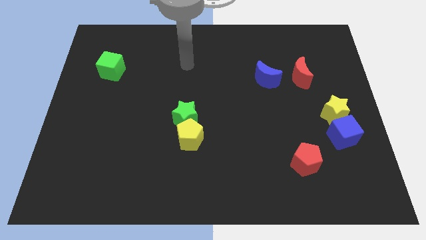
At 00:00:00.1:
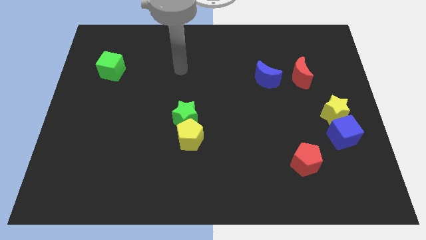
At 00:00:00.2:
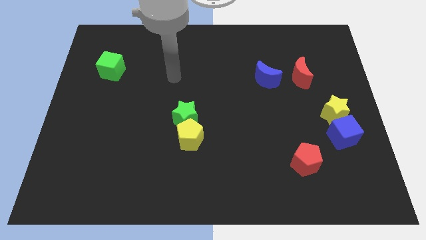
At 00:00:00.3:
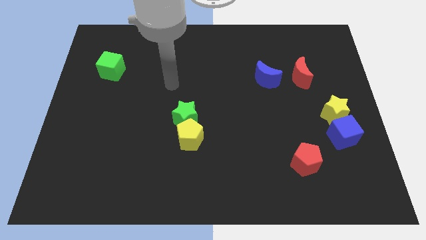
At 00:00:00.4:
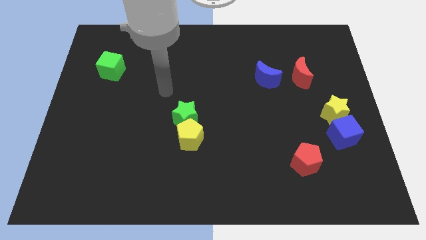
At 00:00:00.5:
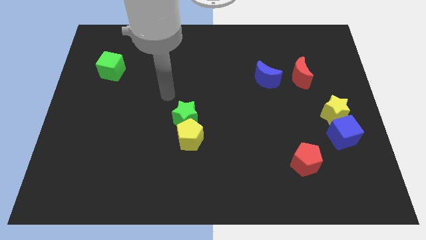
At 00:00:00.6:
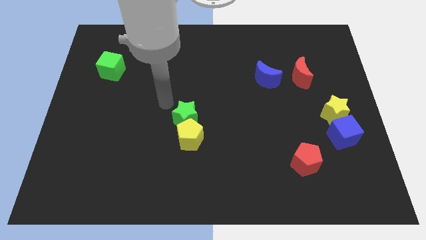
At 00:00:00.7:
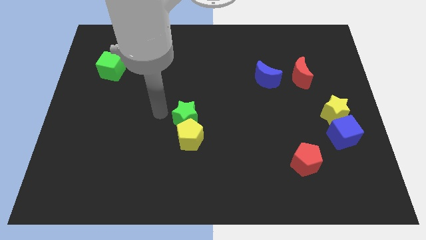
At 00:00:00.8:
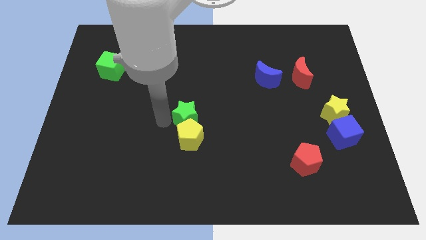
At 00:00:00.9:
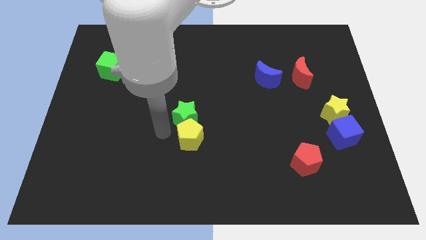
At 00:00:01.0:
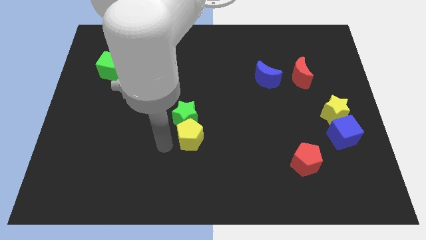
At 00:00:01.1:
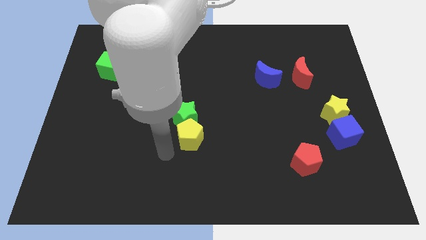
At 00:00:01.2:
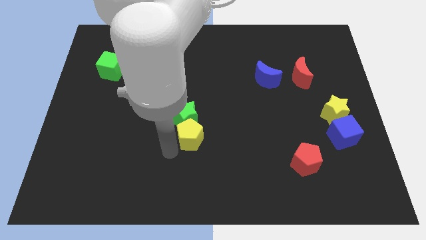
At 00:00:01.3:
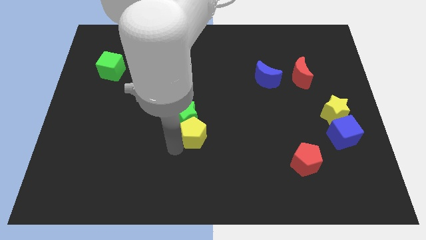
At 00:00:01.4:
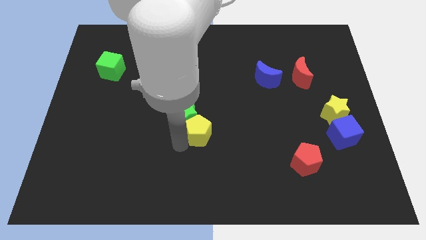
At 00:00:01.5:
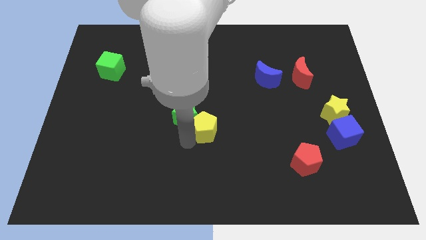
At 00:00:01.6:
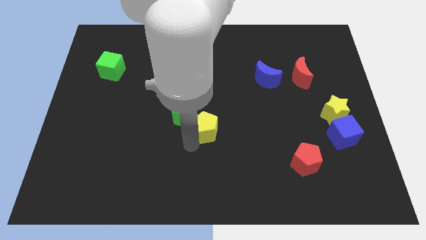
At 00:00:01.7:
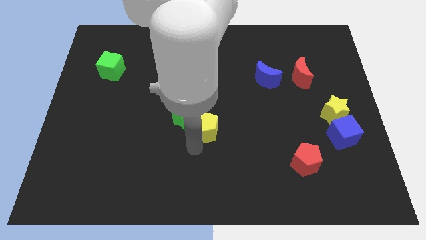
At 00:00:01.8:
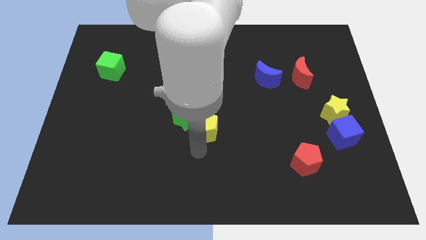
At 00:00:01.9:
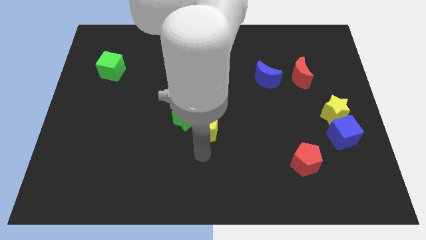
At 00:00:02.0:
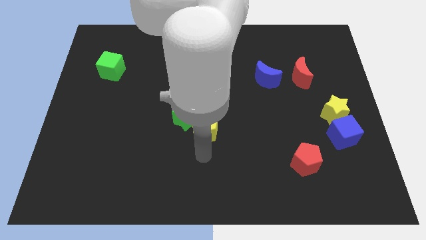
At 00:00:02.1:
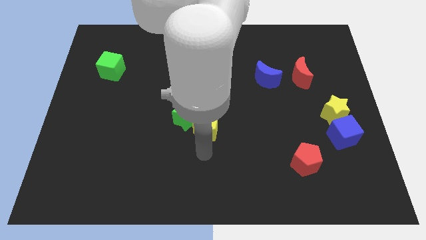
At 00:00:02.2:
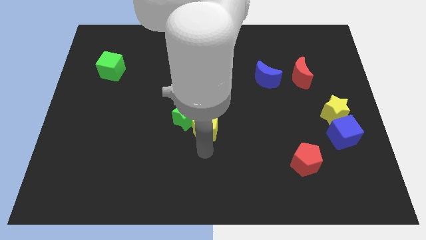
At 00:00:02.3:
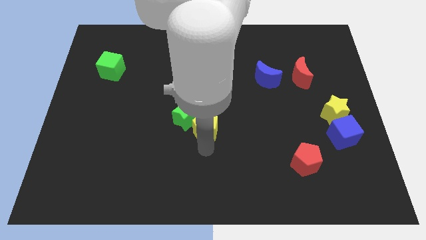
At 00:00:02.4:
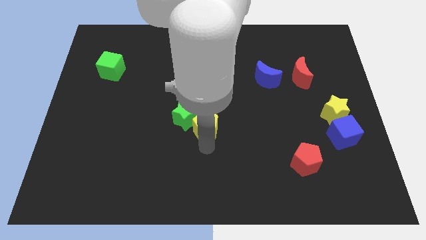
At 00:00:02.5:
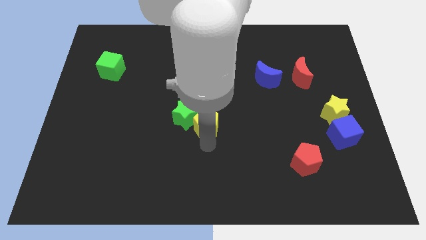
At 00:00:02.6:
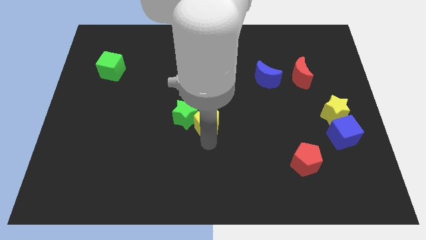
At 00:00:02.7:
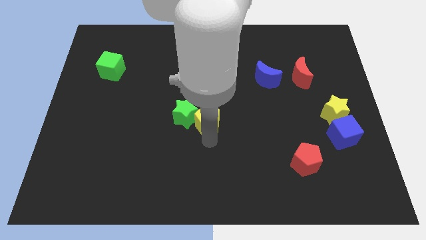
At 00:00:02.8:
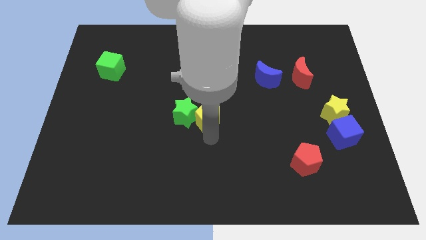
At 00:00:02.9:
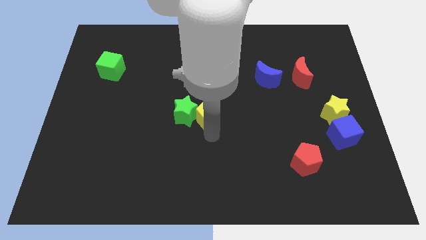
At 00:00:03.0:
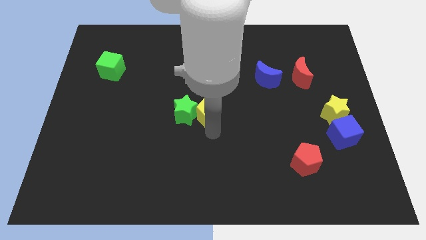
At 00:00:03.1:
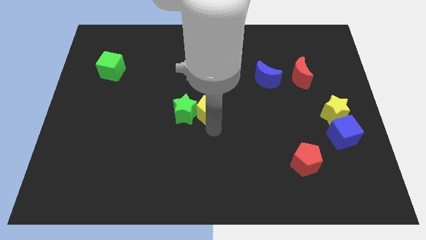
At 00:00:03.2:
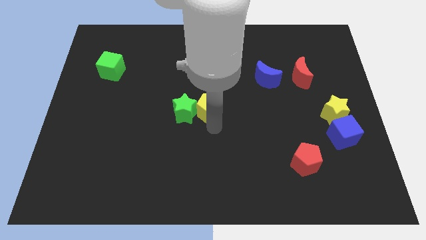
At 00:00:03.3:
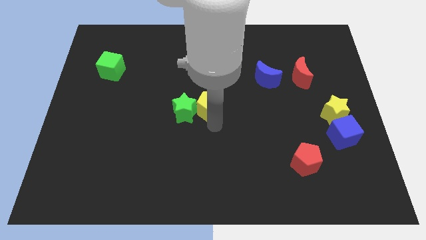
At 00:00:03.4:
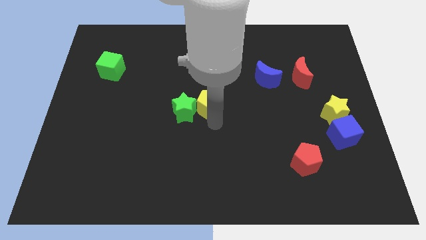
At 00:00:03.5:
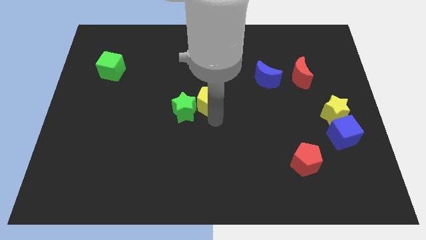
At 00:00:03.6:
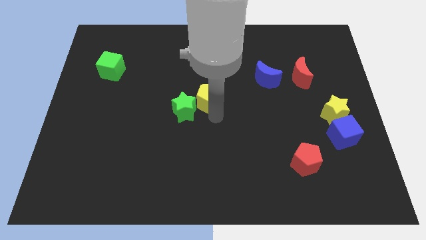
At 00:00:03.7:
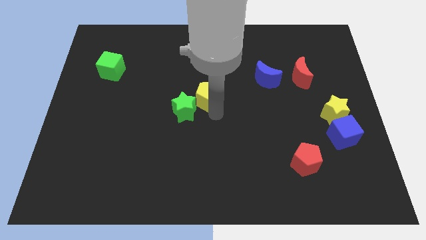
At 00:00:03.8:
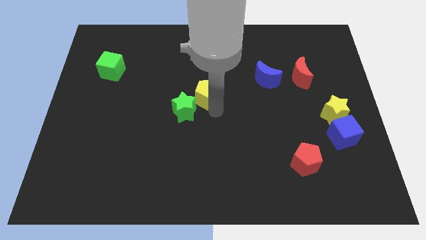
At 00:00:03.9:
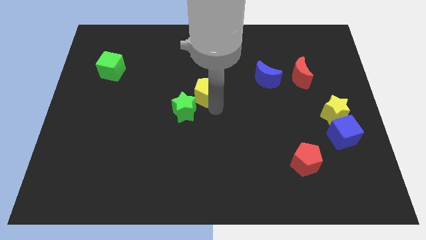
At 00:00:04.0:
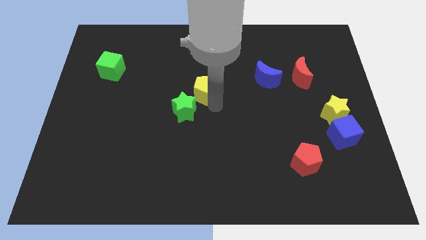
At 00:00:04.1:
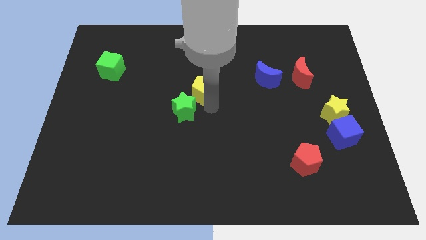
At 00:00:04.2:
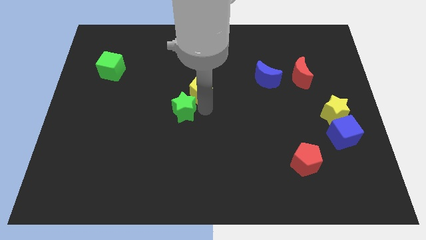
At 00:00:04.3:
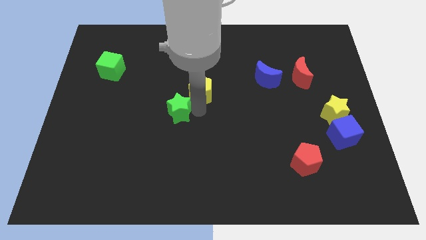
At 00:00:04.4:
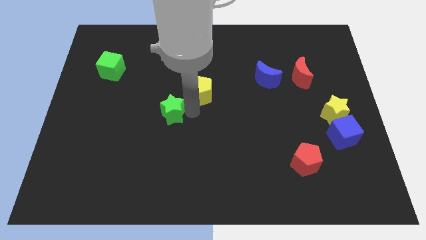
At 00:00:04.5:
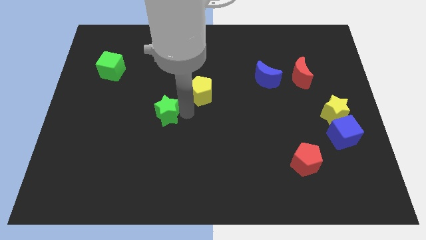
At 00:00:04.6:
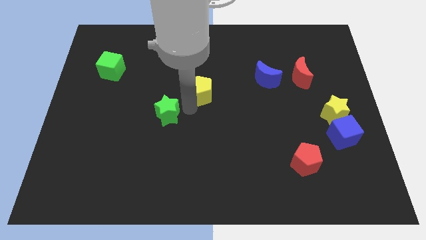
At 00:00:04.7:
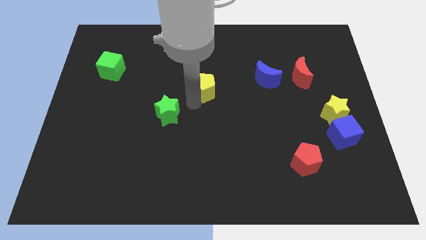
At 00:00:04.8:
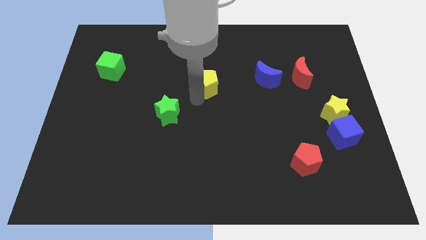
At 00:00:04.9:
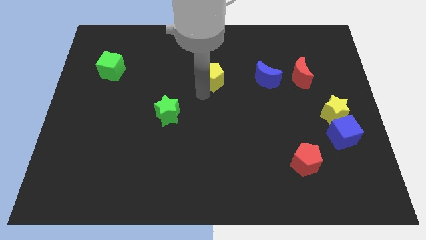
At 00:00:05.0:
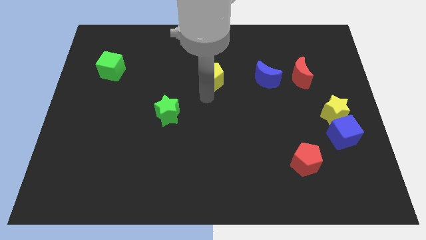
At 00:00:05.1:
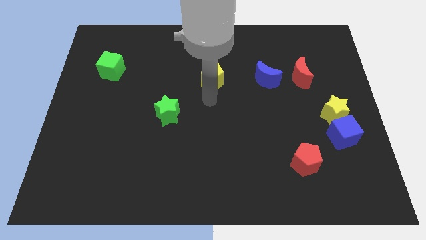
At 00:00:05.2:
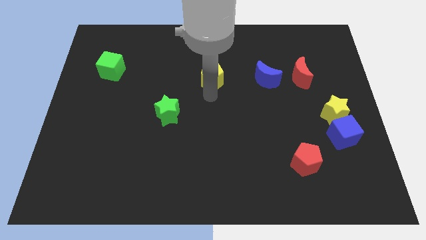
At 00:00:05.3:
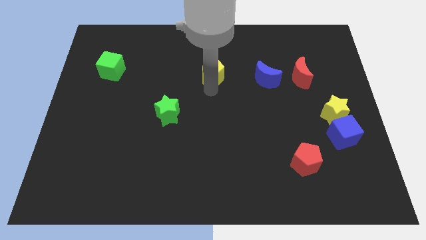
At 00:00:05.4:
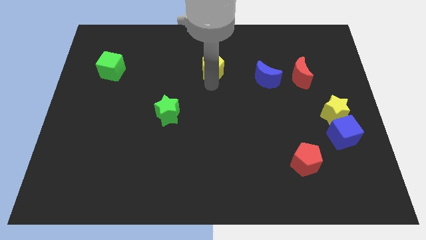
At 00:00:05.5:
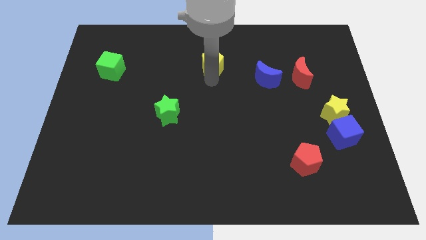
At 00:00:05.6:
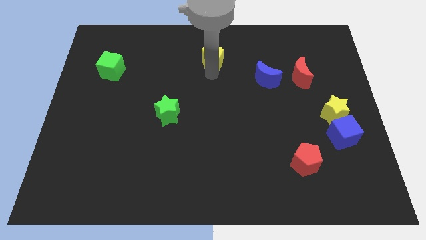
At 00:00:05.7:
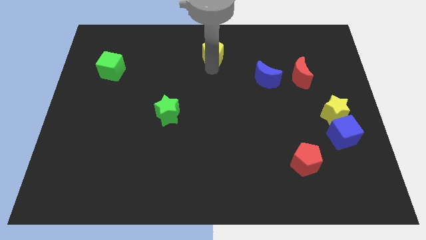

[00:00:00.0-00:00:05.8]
slide the yellow pentagon to the top side
